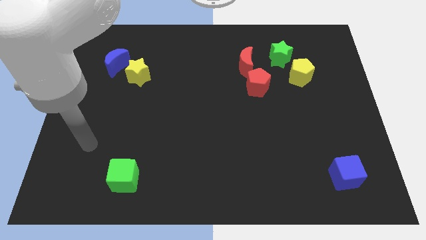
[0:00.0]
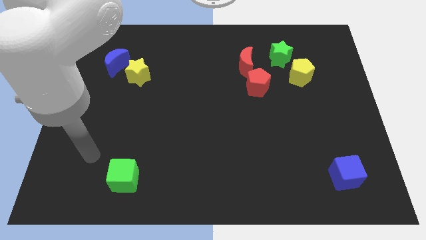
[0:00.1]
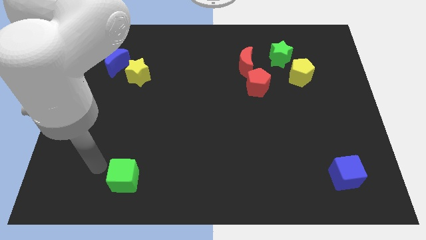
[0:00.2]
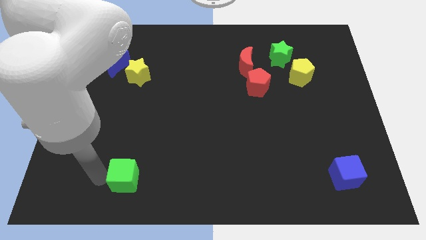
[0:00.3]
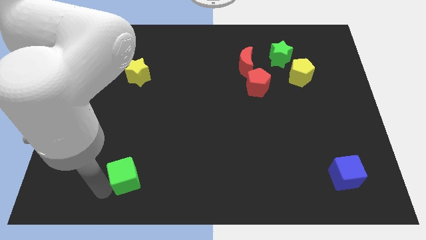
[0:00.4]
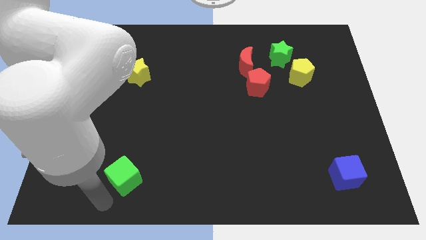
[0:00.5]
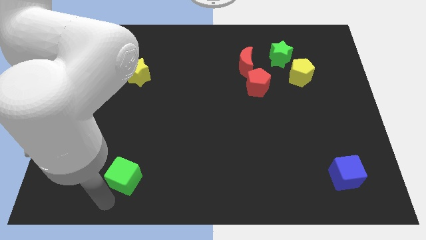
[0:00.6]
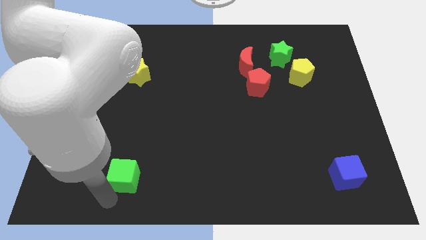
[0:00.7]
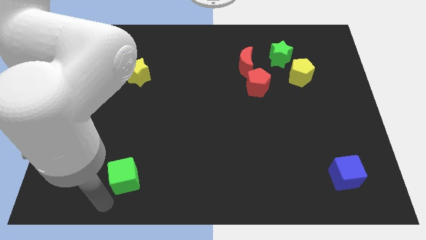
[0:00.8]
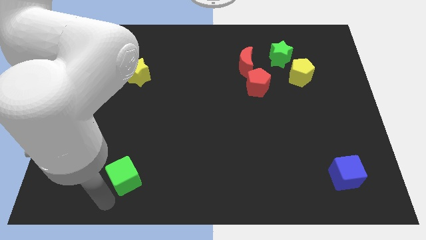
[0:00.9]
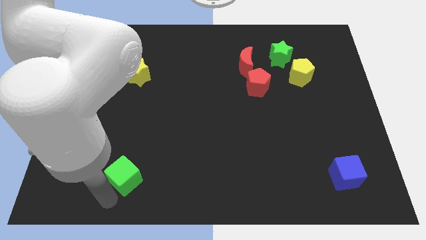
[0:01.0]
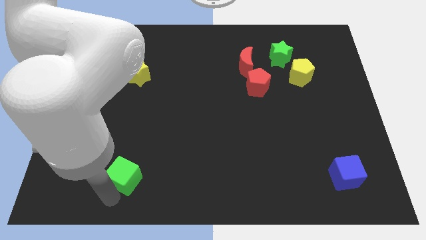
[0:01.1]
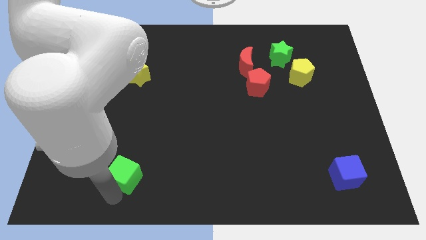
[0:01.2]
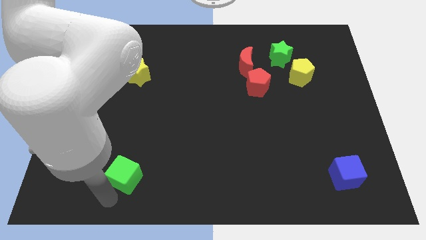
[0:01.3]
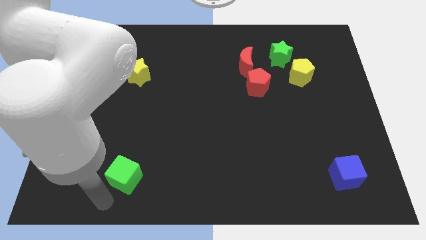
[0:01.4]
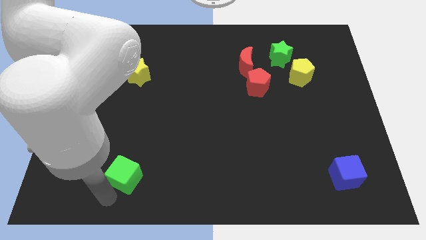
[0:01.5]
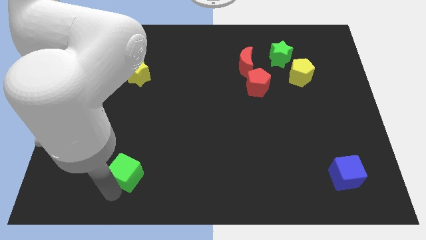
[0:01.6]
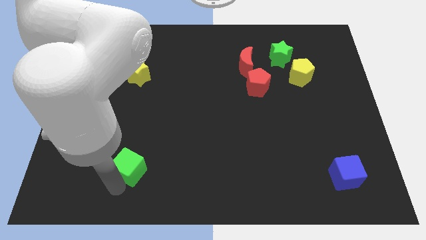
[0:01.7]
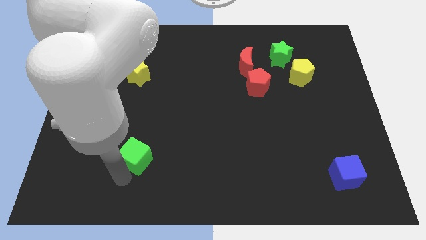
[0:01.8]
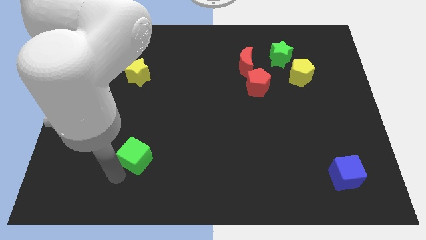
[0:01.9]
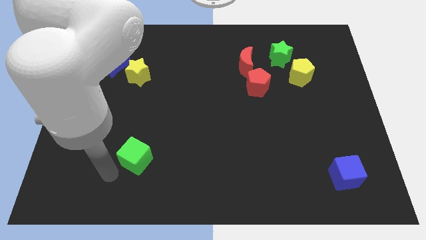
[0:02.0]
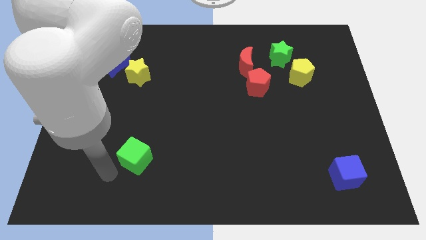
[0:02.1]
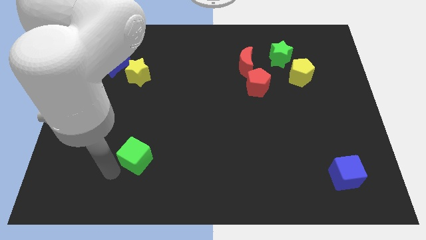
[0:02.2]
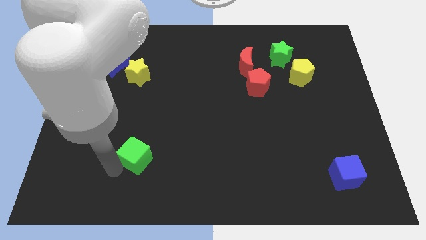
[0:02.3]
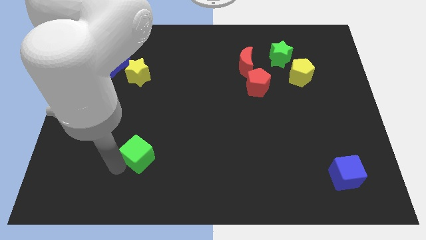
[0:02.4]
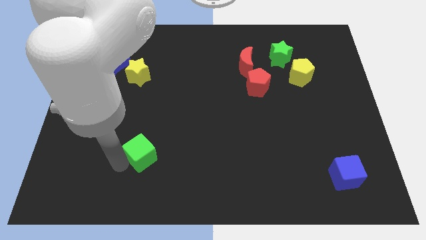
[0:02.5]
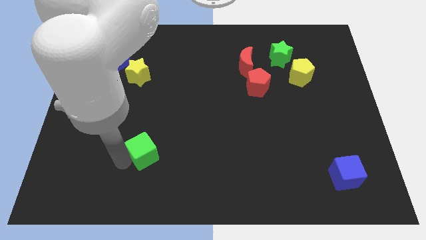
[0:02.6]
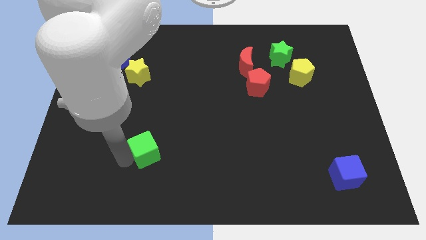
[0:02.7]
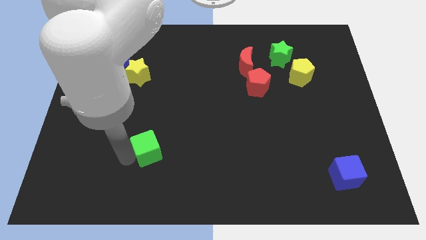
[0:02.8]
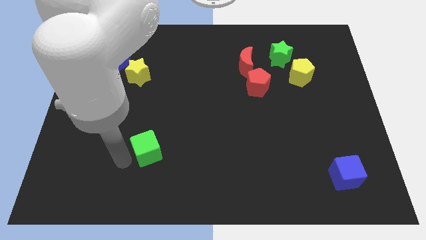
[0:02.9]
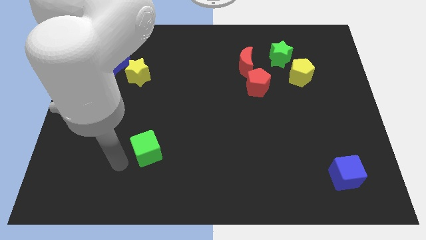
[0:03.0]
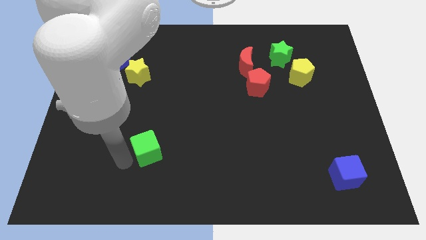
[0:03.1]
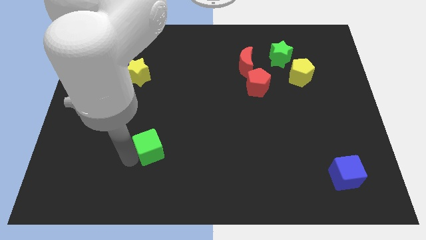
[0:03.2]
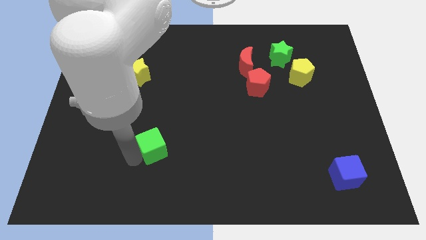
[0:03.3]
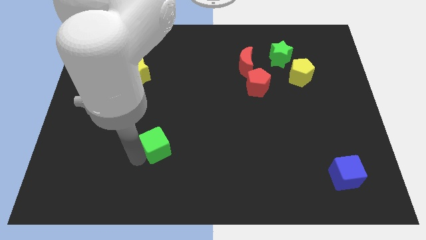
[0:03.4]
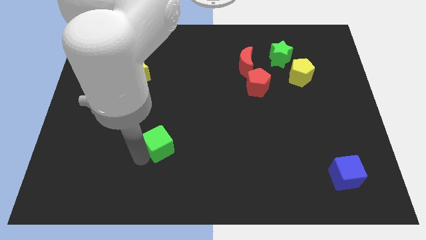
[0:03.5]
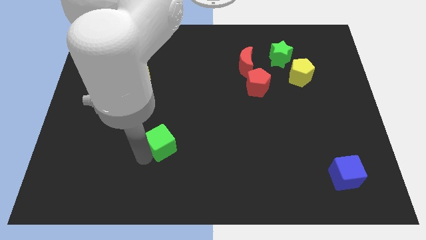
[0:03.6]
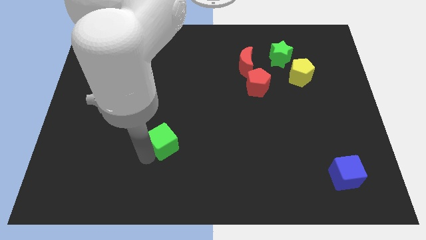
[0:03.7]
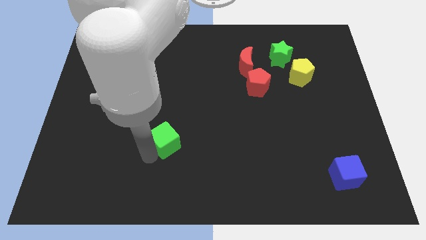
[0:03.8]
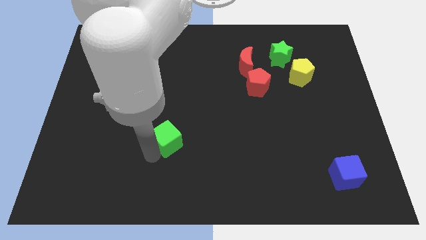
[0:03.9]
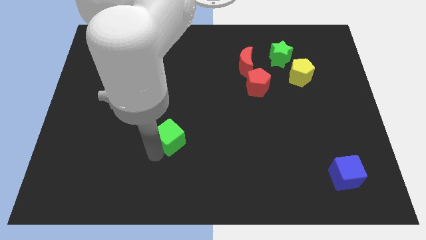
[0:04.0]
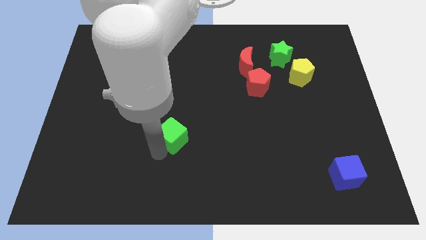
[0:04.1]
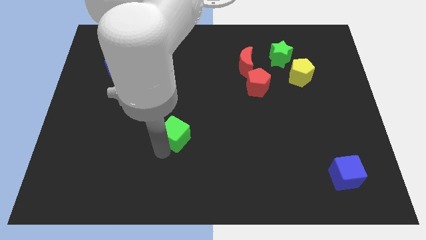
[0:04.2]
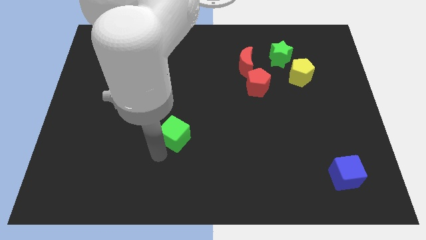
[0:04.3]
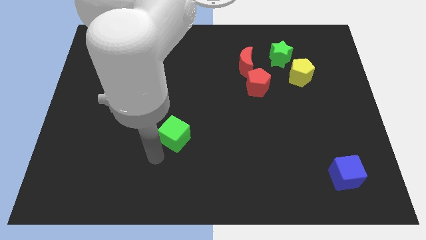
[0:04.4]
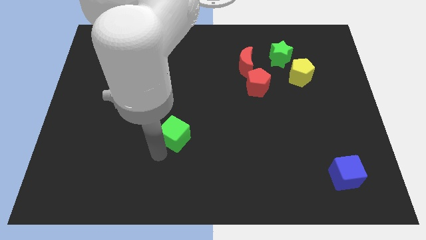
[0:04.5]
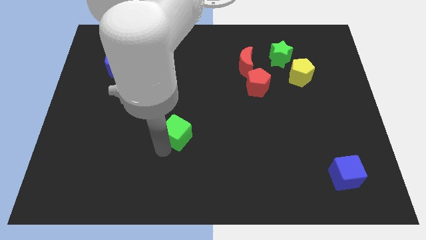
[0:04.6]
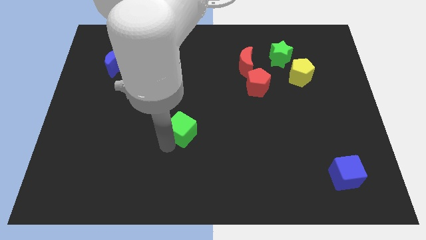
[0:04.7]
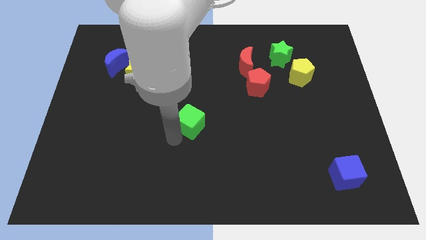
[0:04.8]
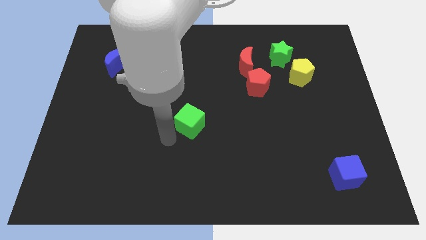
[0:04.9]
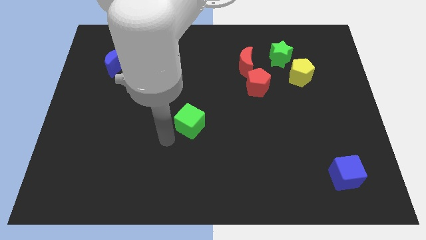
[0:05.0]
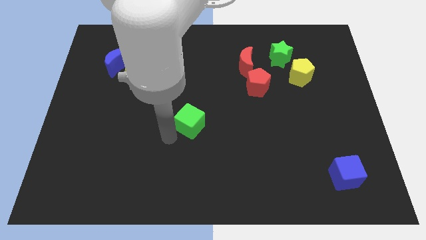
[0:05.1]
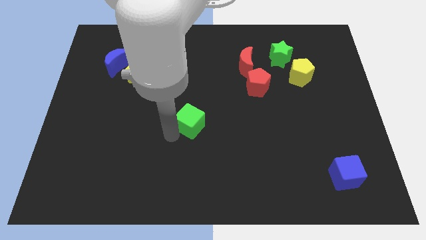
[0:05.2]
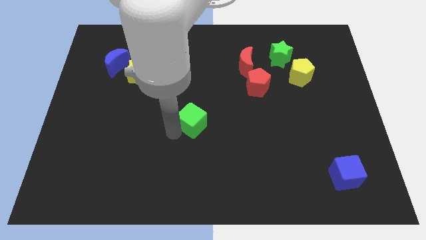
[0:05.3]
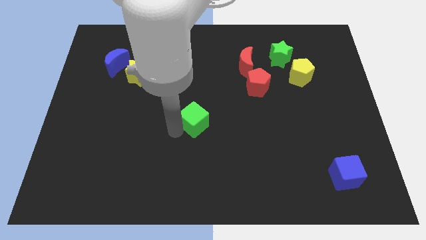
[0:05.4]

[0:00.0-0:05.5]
slide the green cube up and right diagonally

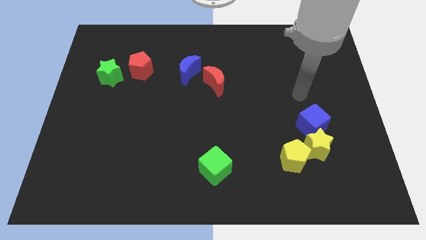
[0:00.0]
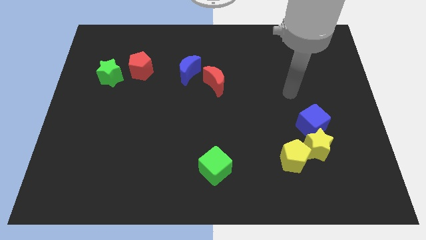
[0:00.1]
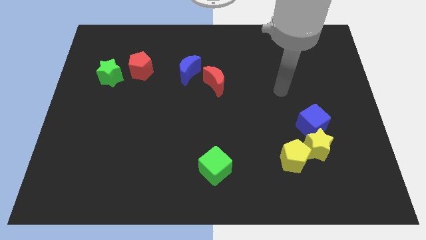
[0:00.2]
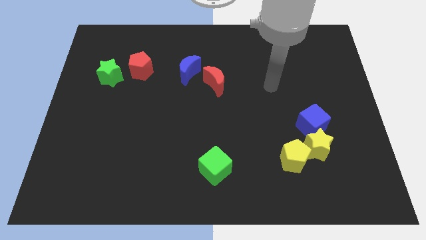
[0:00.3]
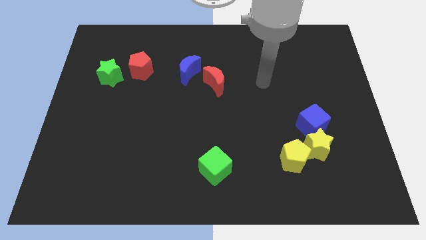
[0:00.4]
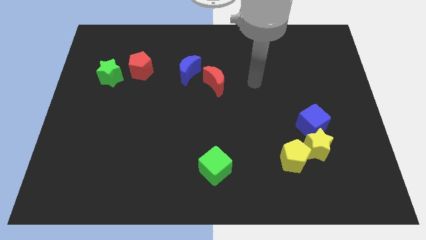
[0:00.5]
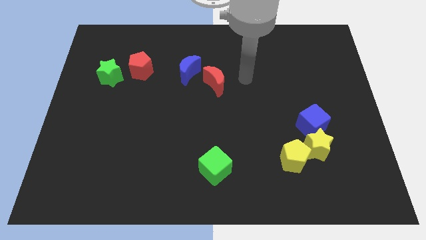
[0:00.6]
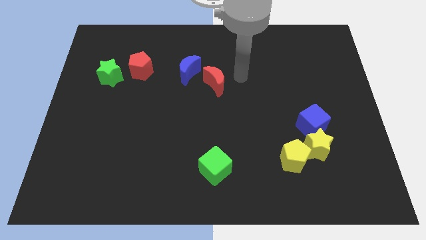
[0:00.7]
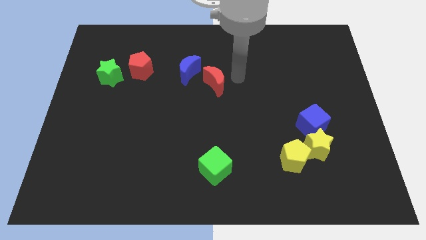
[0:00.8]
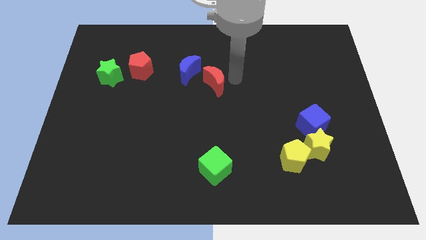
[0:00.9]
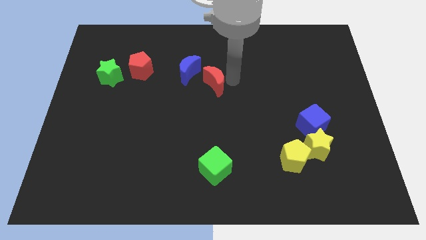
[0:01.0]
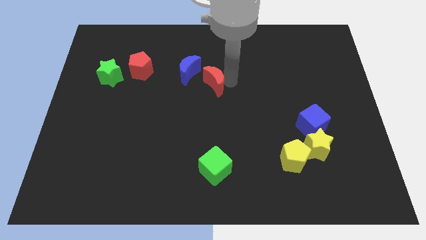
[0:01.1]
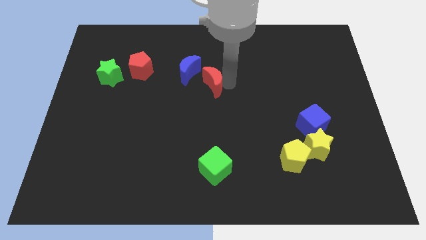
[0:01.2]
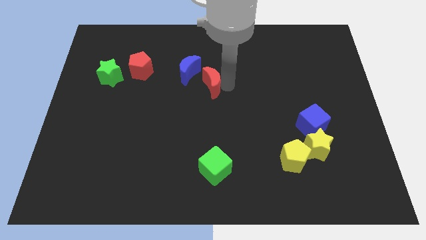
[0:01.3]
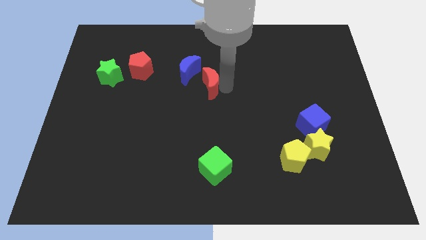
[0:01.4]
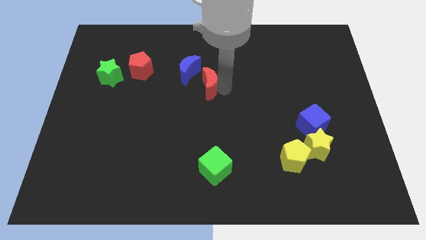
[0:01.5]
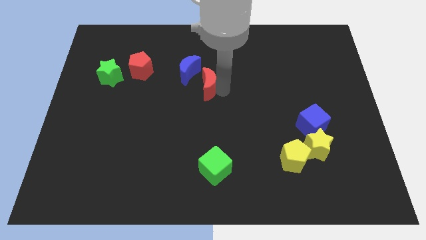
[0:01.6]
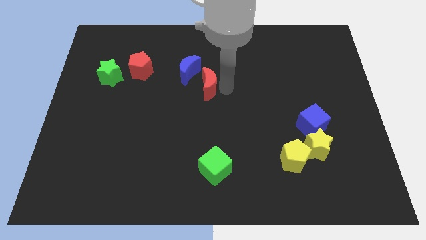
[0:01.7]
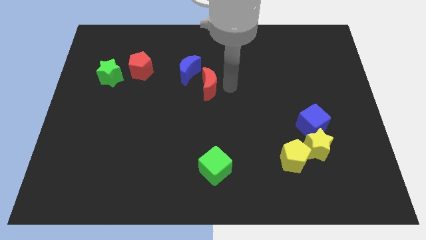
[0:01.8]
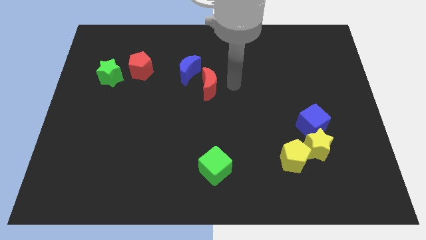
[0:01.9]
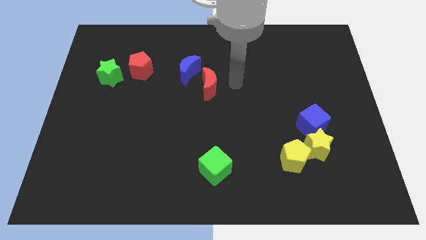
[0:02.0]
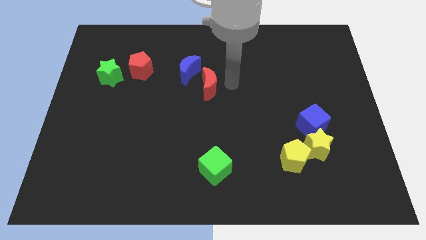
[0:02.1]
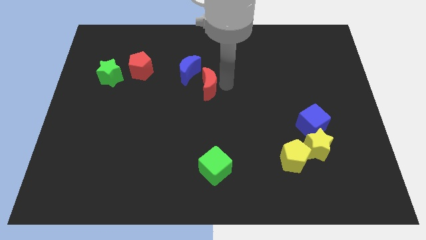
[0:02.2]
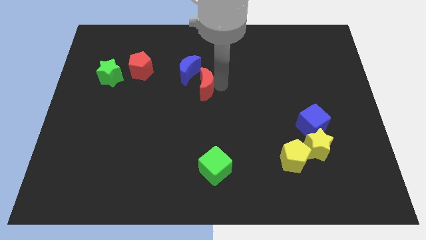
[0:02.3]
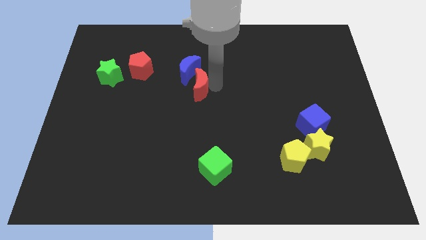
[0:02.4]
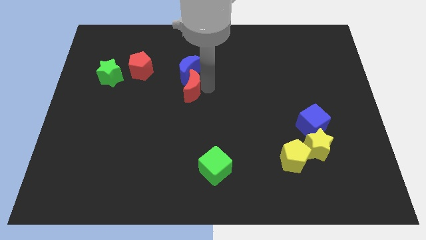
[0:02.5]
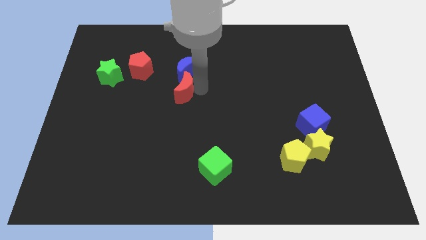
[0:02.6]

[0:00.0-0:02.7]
move the red moon left a little
